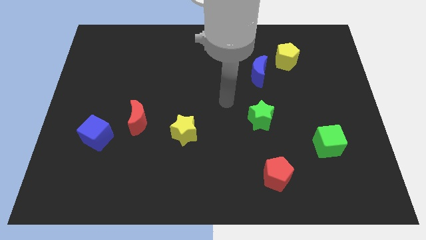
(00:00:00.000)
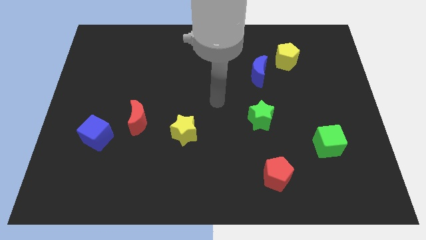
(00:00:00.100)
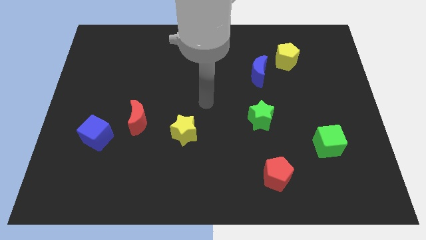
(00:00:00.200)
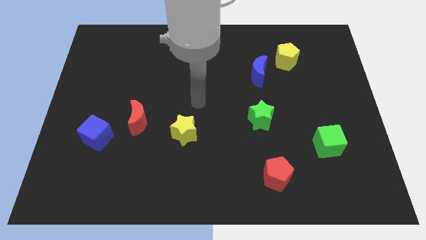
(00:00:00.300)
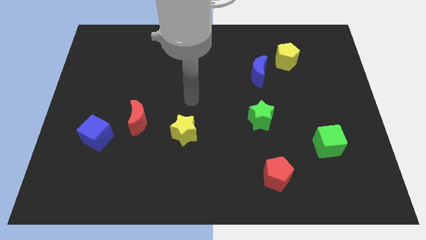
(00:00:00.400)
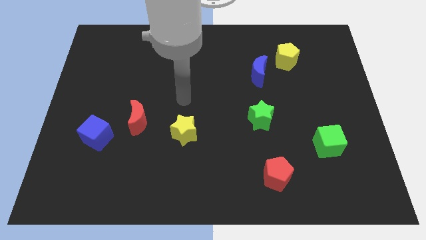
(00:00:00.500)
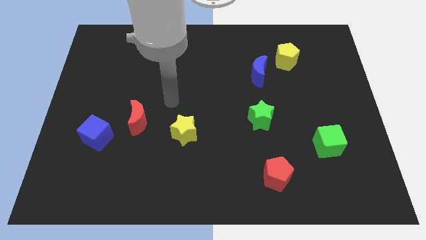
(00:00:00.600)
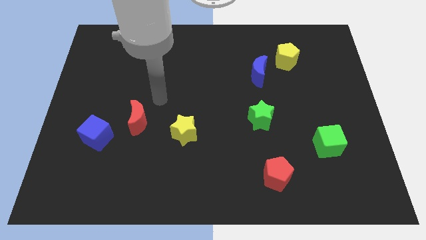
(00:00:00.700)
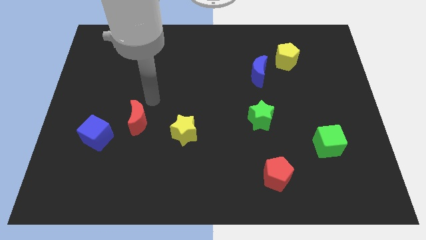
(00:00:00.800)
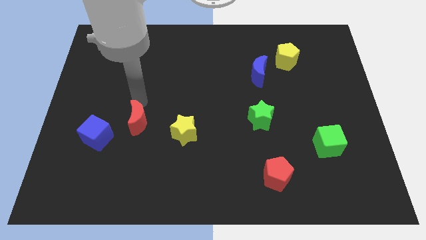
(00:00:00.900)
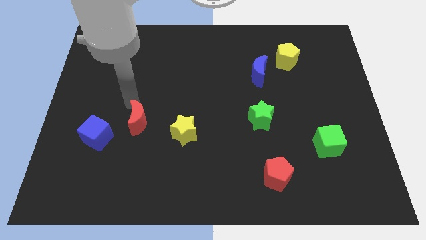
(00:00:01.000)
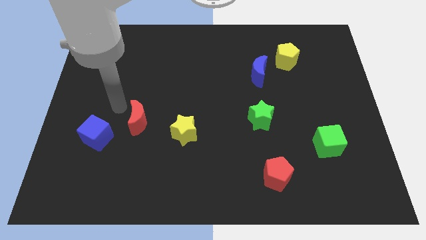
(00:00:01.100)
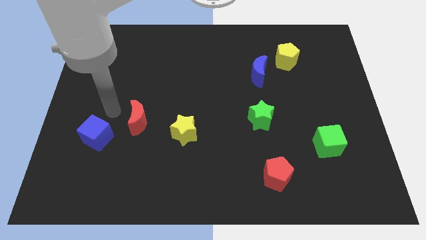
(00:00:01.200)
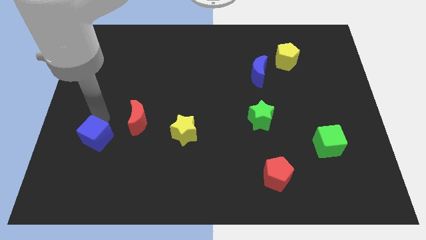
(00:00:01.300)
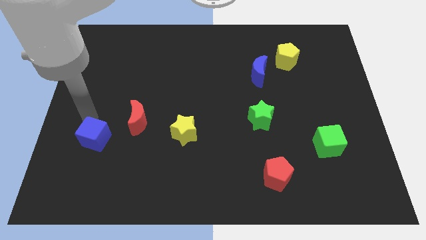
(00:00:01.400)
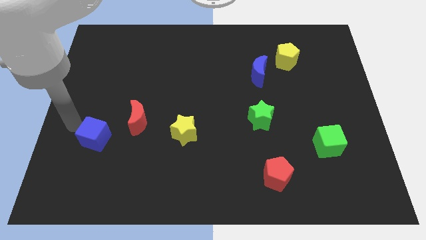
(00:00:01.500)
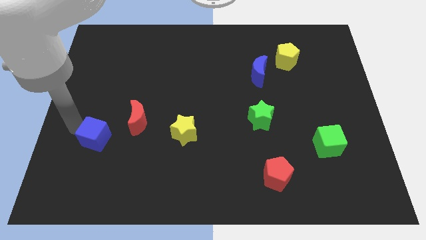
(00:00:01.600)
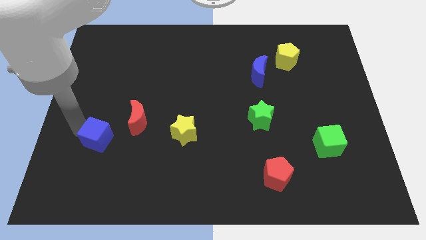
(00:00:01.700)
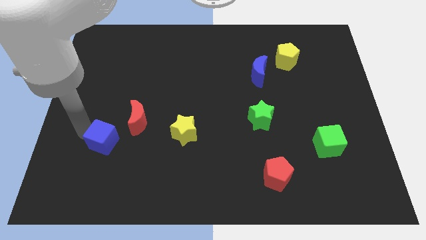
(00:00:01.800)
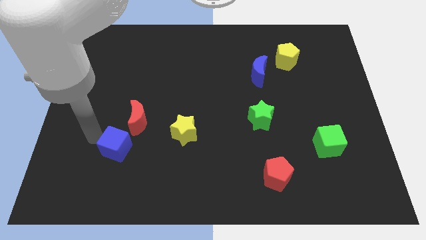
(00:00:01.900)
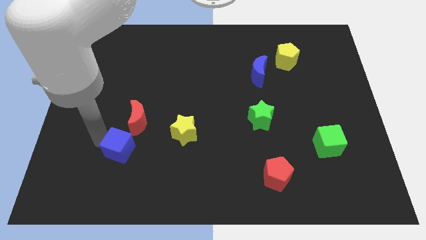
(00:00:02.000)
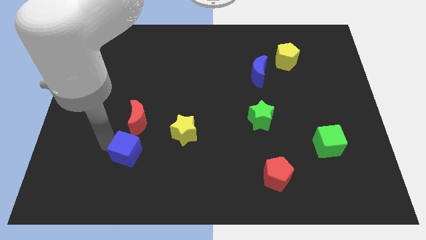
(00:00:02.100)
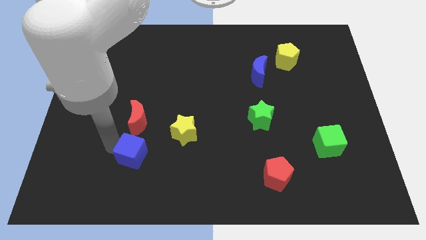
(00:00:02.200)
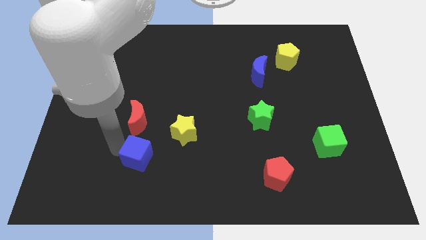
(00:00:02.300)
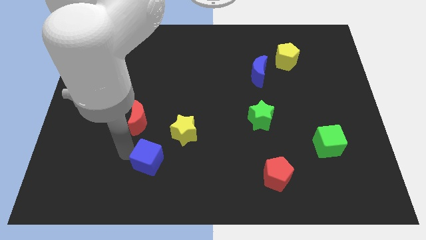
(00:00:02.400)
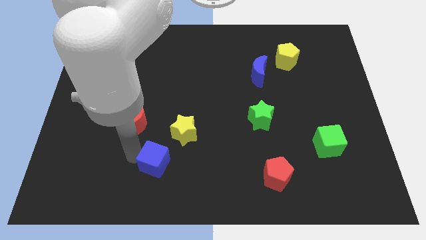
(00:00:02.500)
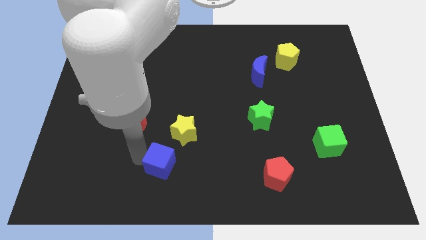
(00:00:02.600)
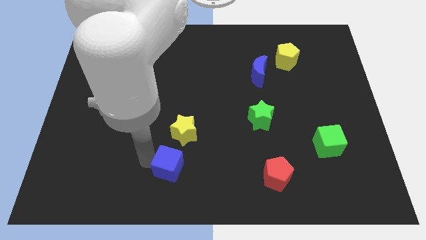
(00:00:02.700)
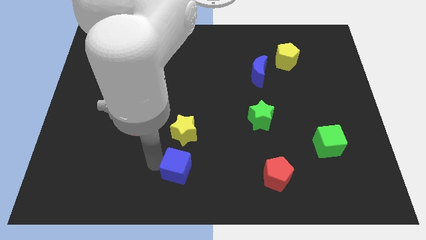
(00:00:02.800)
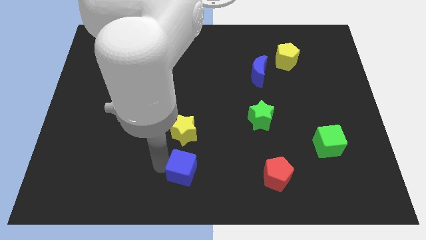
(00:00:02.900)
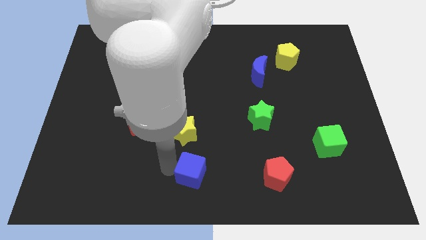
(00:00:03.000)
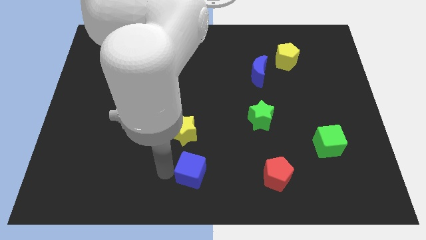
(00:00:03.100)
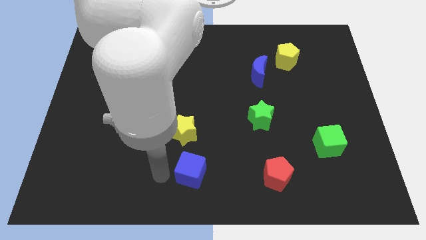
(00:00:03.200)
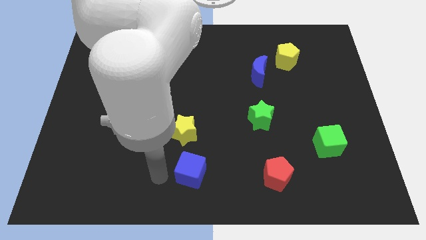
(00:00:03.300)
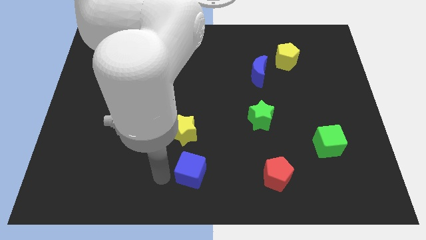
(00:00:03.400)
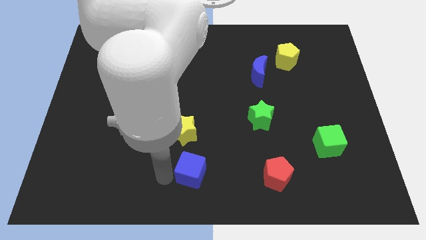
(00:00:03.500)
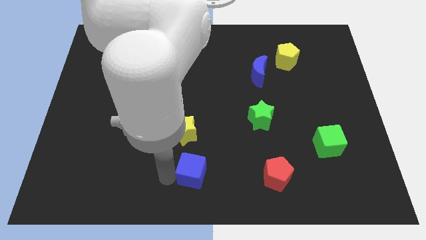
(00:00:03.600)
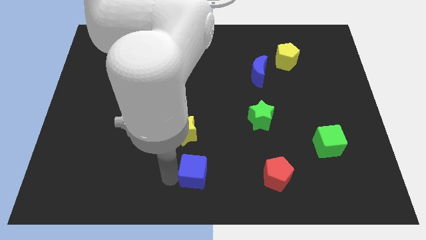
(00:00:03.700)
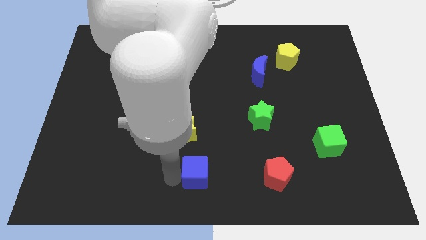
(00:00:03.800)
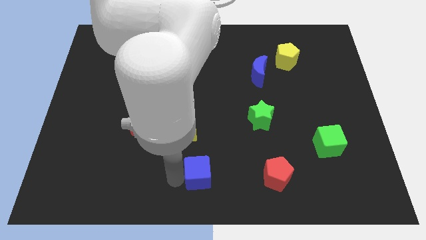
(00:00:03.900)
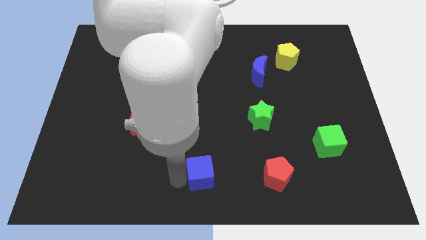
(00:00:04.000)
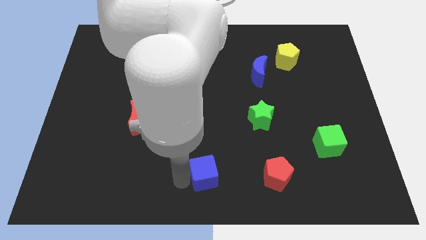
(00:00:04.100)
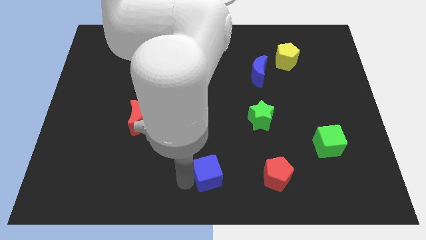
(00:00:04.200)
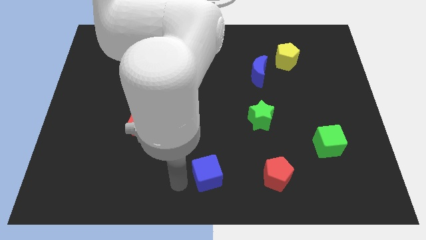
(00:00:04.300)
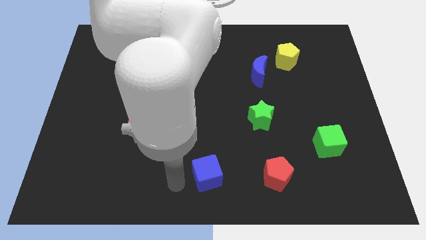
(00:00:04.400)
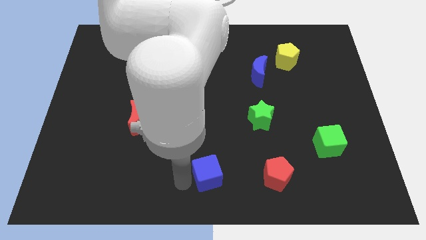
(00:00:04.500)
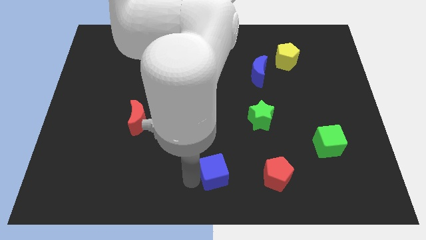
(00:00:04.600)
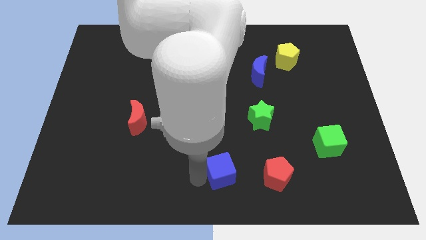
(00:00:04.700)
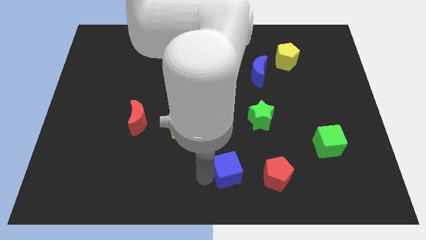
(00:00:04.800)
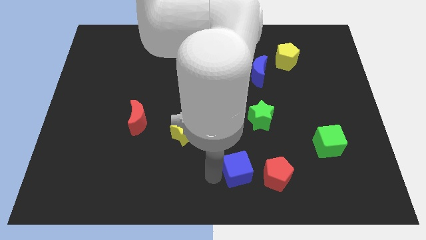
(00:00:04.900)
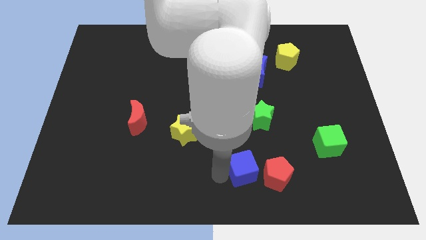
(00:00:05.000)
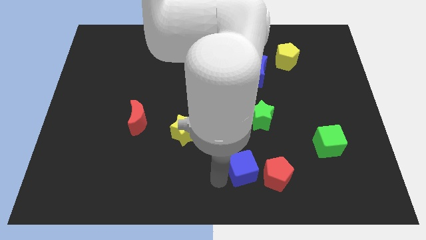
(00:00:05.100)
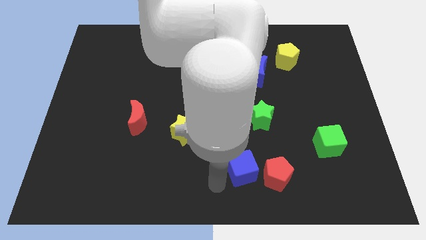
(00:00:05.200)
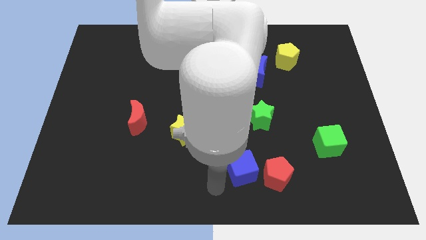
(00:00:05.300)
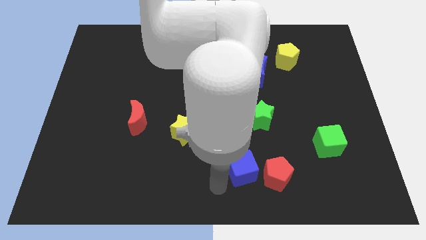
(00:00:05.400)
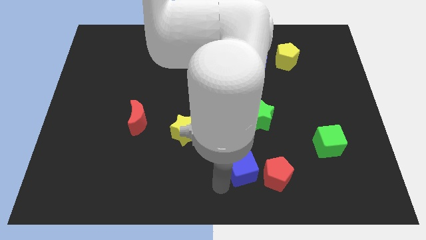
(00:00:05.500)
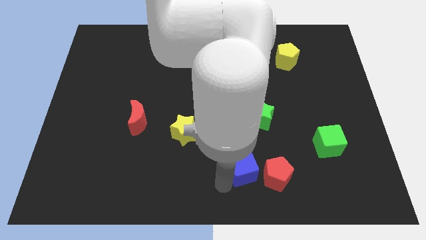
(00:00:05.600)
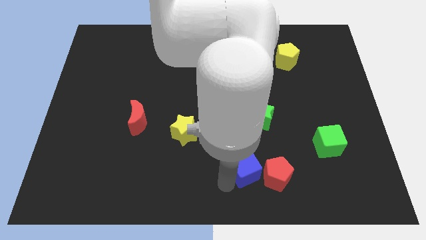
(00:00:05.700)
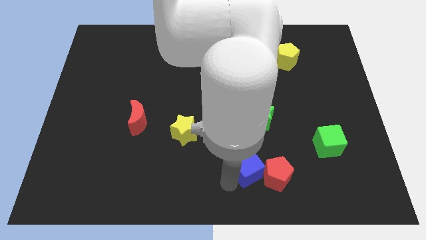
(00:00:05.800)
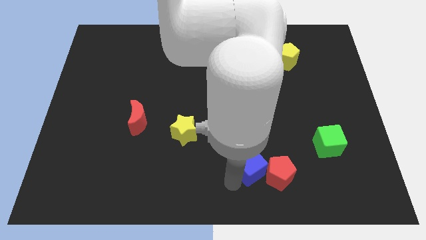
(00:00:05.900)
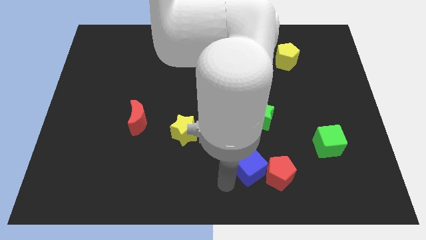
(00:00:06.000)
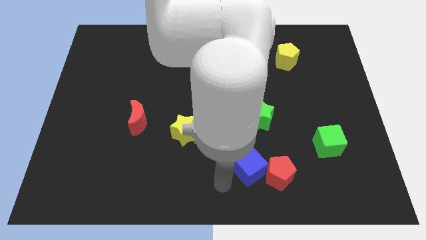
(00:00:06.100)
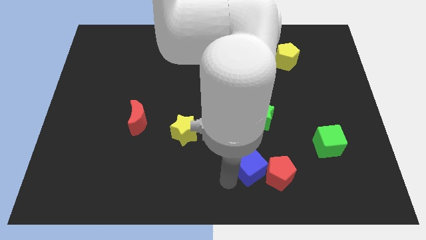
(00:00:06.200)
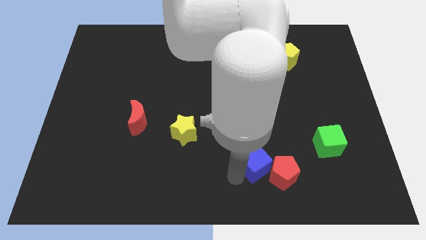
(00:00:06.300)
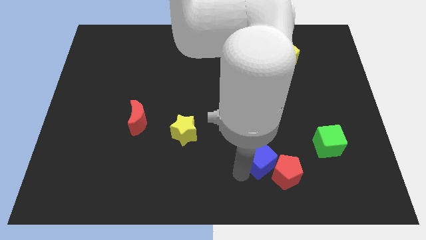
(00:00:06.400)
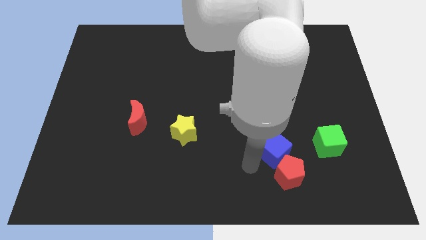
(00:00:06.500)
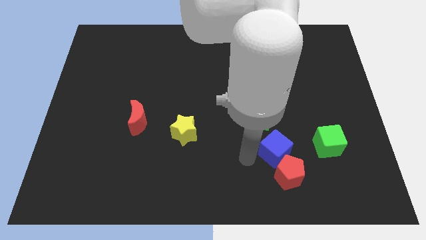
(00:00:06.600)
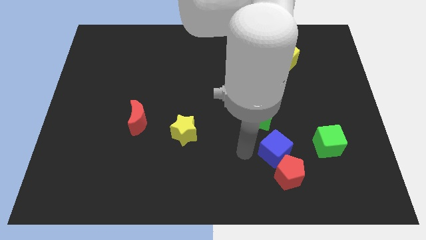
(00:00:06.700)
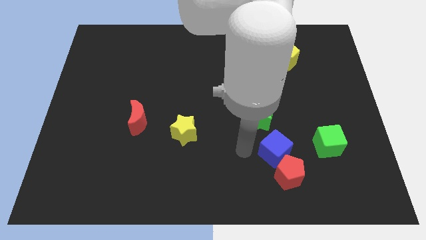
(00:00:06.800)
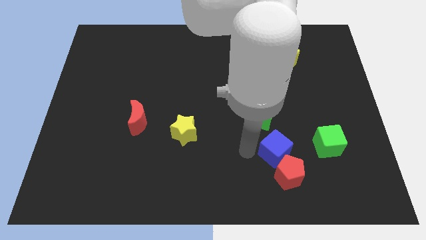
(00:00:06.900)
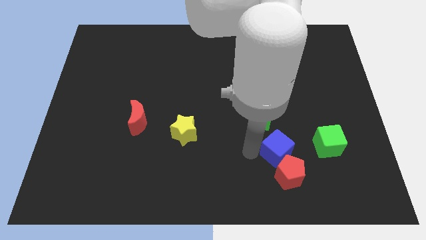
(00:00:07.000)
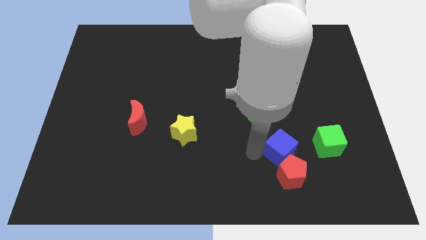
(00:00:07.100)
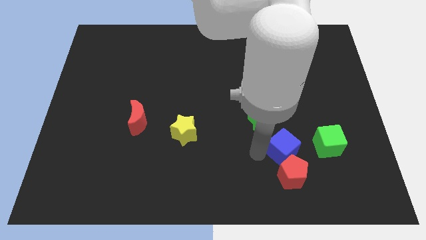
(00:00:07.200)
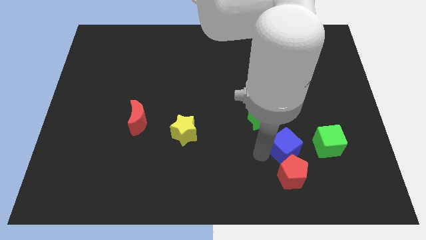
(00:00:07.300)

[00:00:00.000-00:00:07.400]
put the blue cube to the top right of the red pentagon
